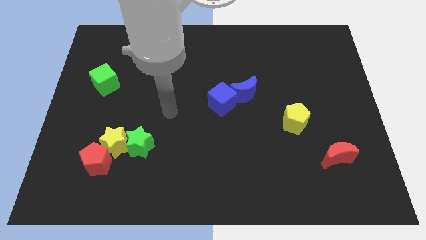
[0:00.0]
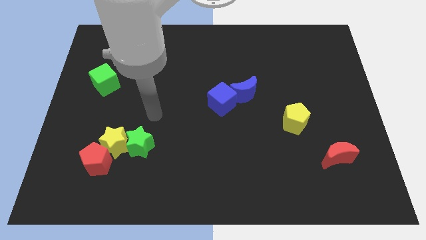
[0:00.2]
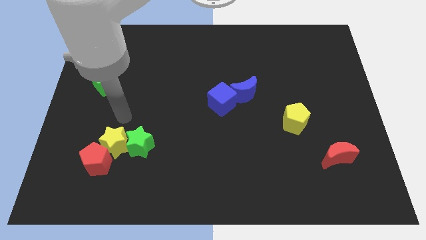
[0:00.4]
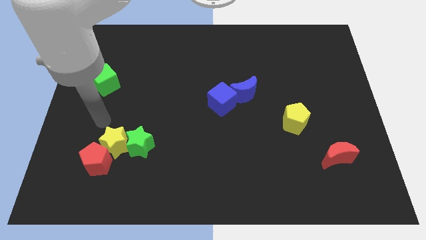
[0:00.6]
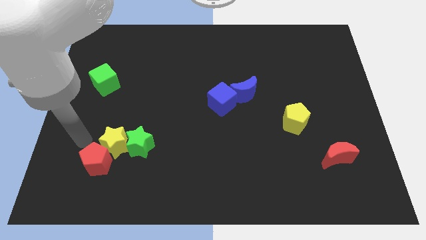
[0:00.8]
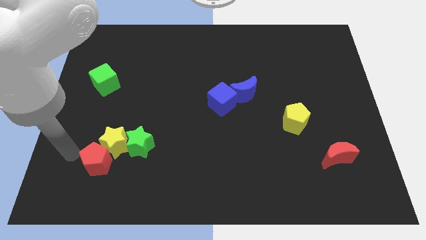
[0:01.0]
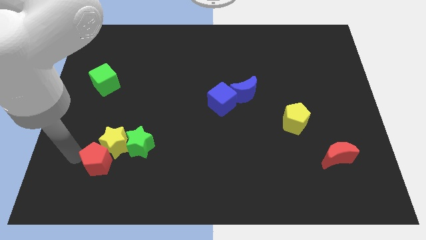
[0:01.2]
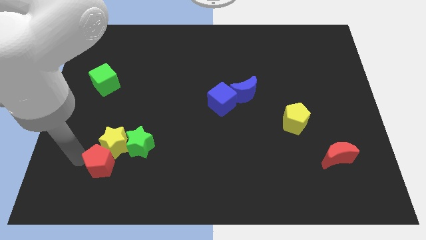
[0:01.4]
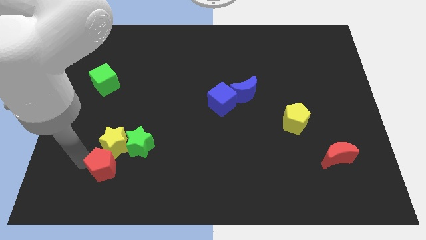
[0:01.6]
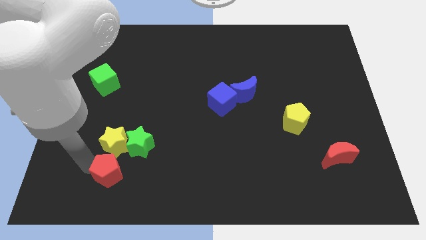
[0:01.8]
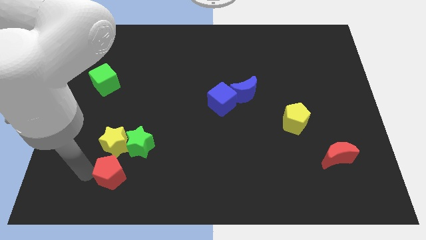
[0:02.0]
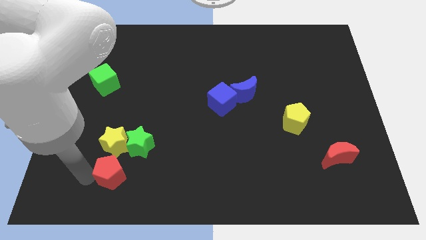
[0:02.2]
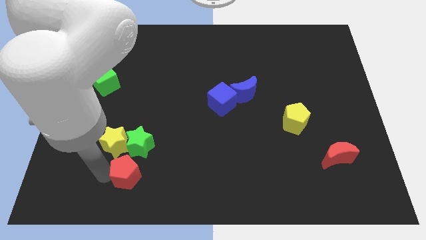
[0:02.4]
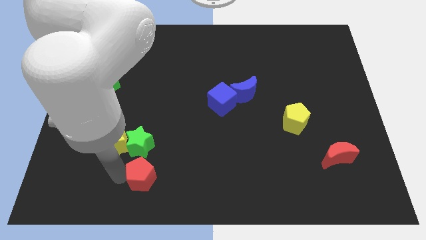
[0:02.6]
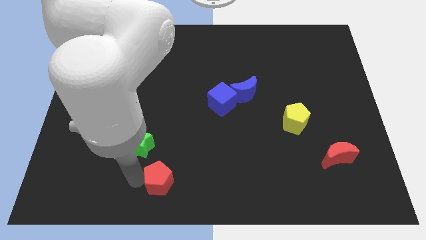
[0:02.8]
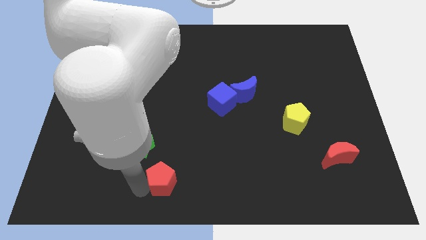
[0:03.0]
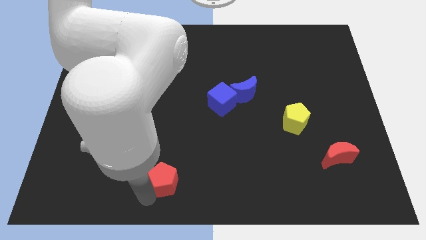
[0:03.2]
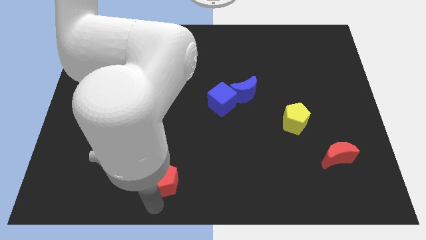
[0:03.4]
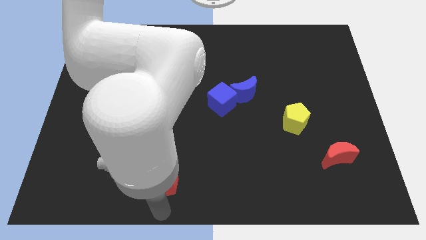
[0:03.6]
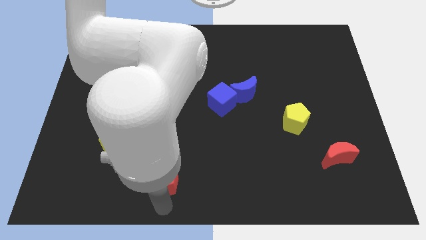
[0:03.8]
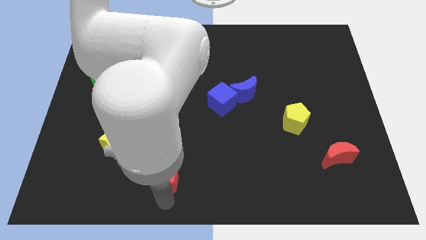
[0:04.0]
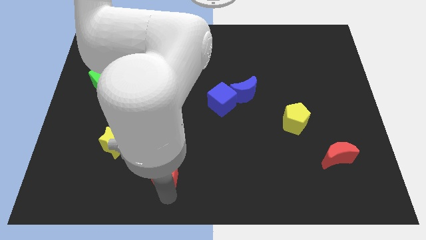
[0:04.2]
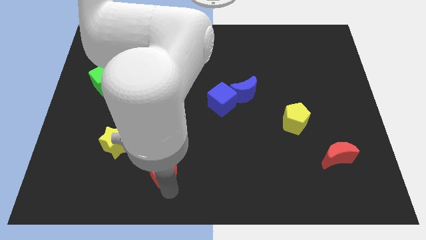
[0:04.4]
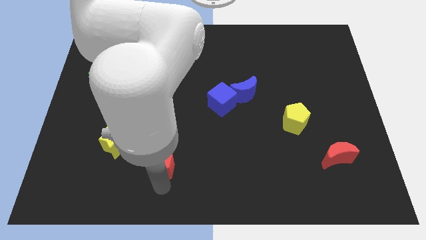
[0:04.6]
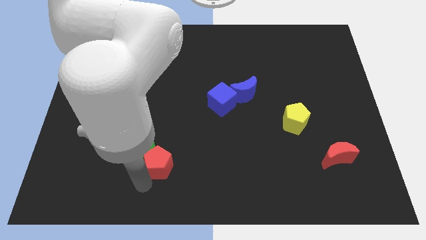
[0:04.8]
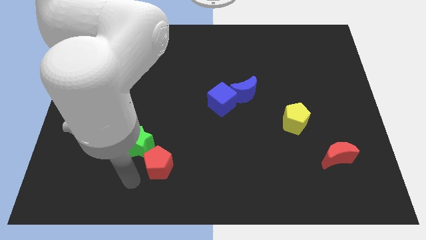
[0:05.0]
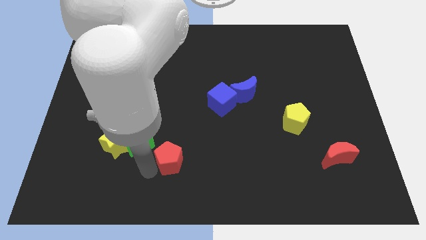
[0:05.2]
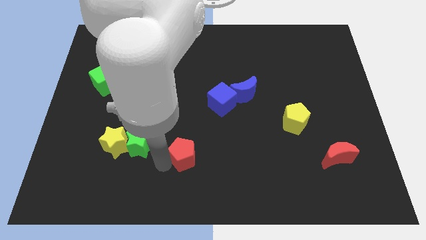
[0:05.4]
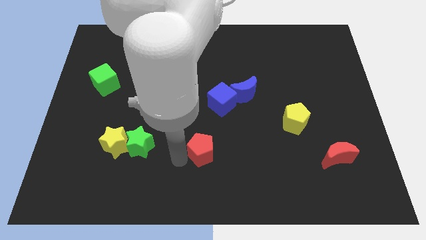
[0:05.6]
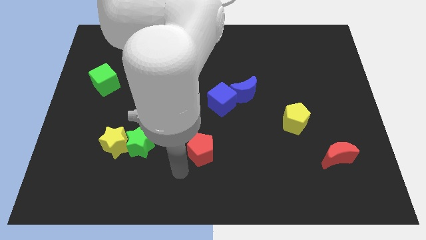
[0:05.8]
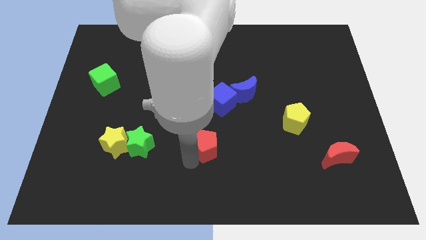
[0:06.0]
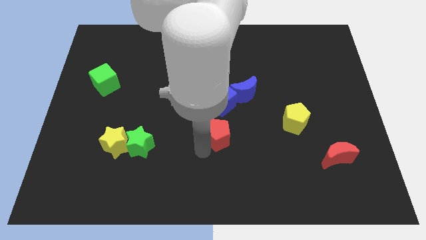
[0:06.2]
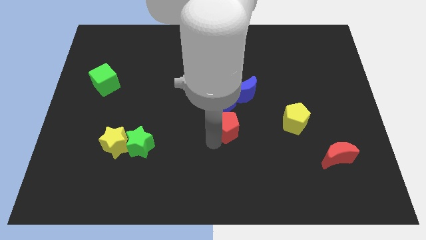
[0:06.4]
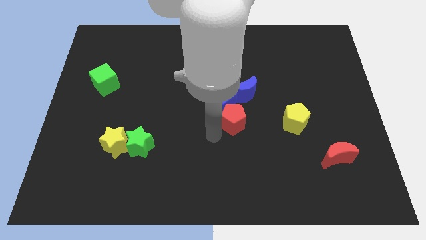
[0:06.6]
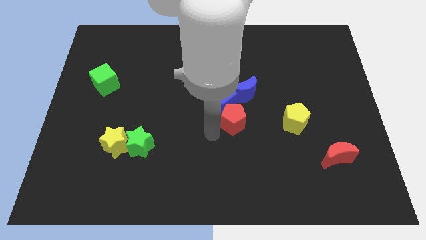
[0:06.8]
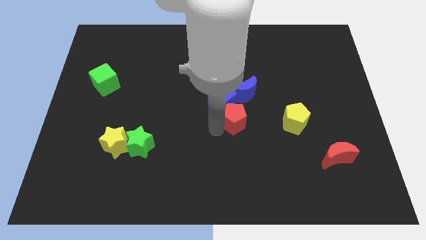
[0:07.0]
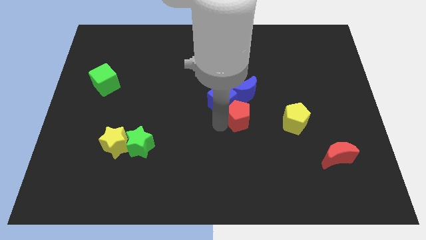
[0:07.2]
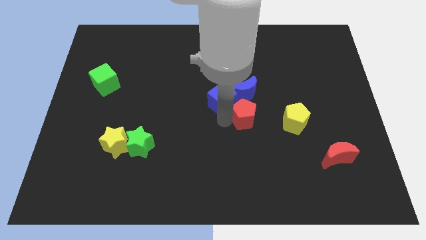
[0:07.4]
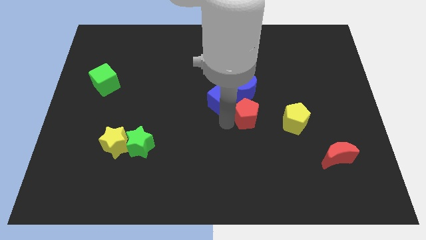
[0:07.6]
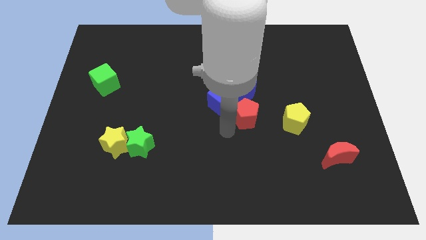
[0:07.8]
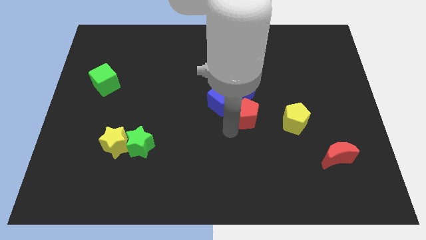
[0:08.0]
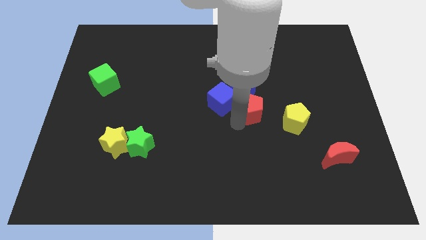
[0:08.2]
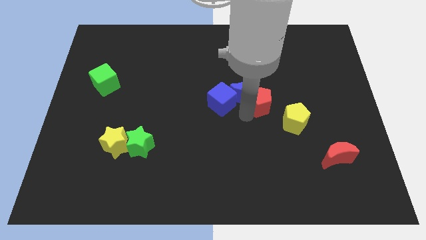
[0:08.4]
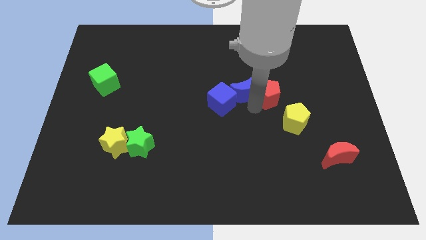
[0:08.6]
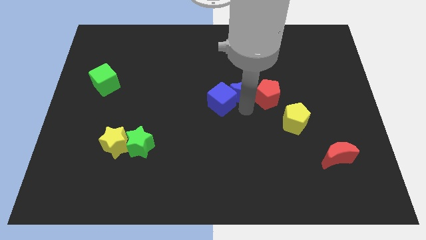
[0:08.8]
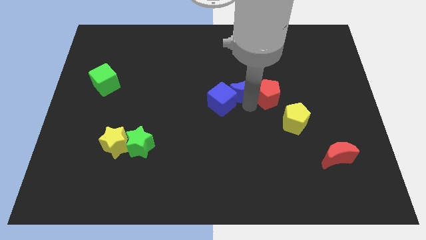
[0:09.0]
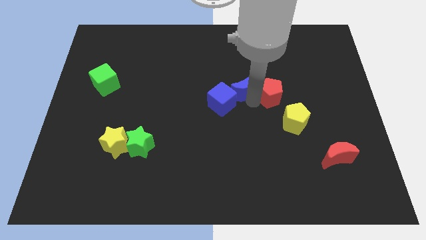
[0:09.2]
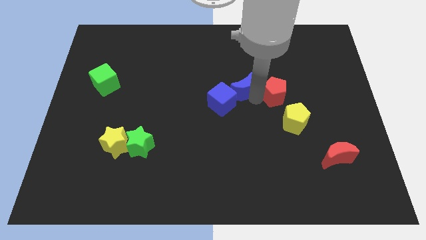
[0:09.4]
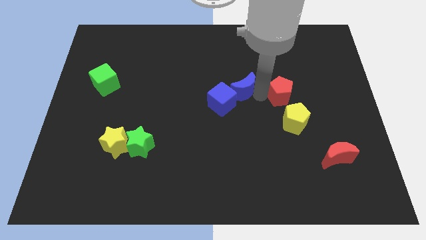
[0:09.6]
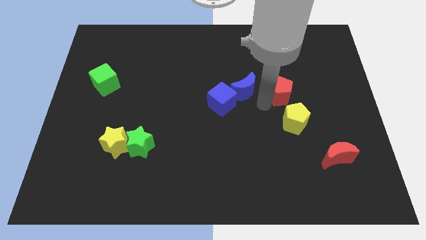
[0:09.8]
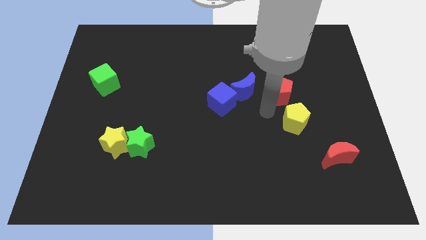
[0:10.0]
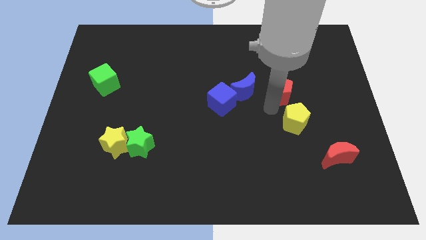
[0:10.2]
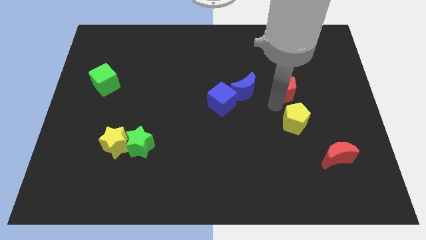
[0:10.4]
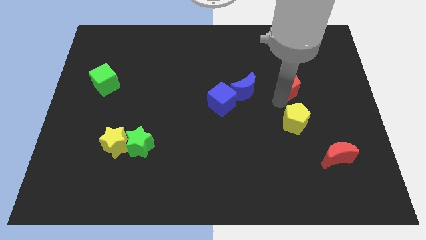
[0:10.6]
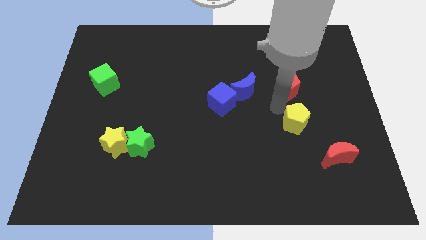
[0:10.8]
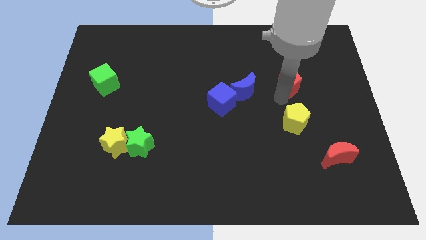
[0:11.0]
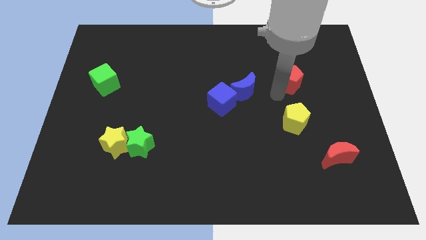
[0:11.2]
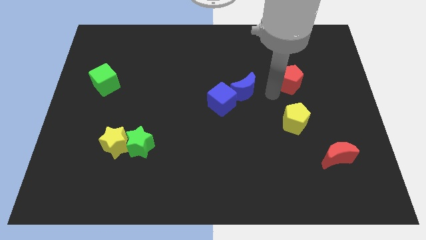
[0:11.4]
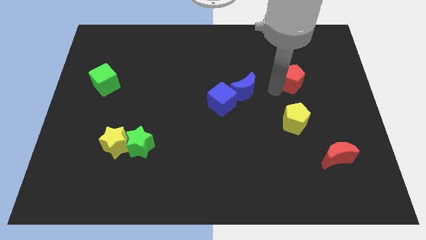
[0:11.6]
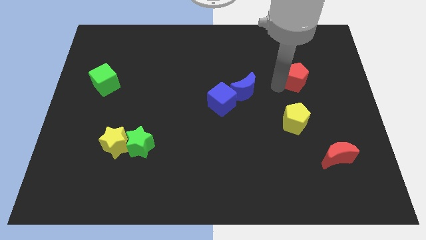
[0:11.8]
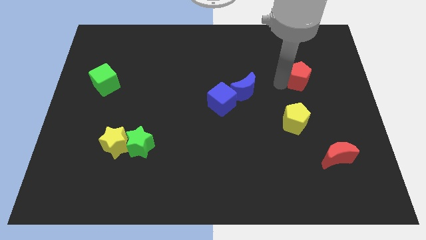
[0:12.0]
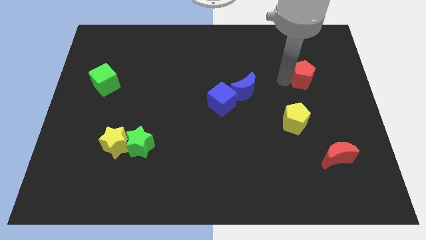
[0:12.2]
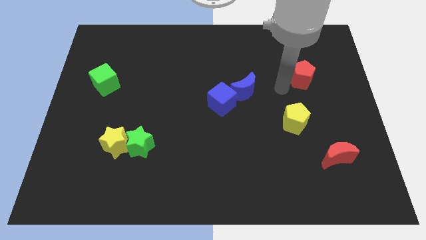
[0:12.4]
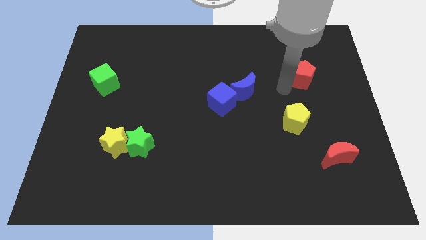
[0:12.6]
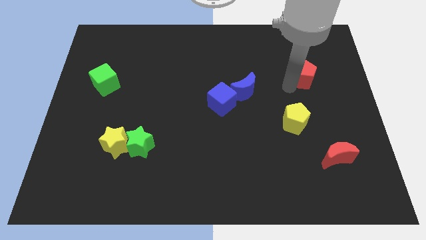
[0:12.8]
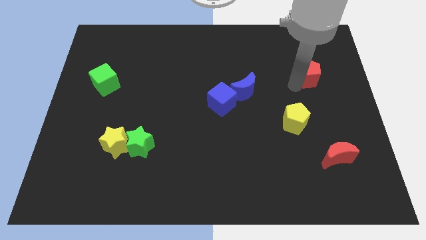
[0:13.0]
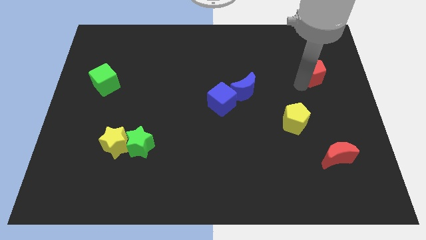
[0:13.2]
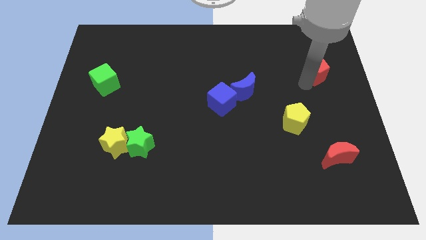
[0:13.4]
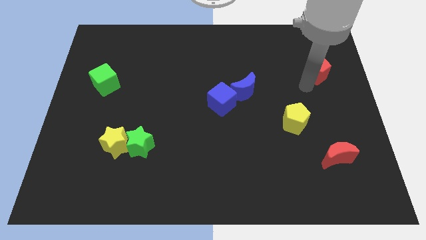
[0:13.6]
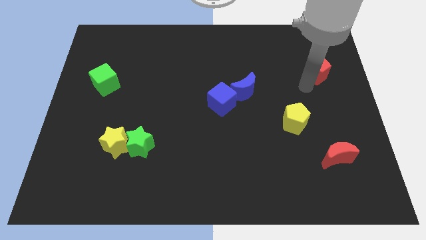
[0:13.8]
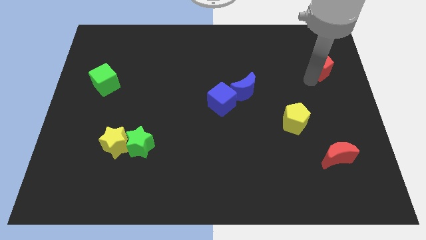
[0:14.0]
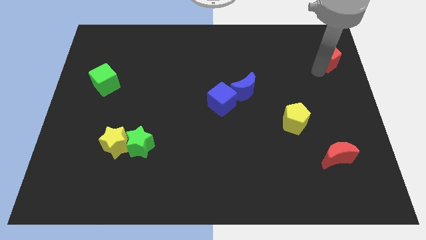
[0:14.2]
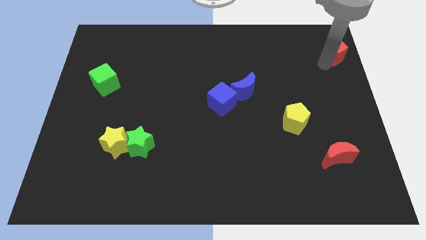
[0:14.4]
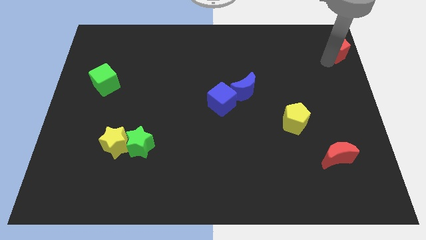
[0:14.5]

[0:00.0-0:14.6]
slide the red pentagon to the upper right corner
